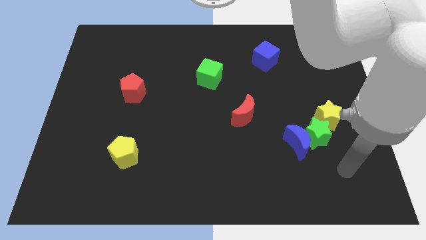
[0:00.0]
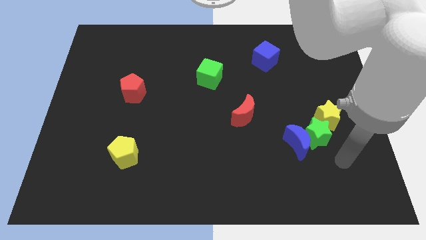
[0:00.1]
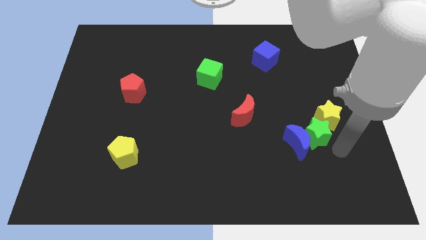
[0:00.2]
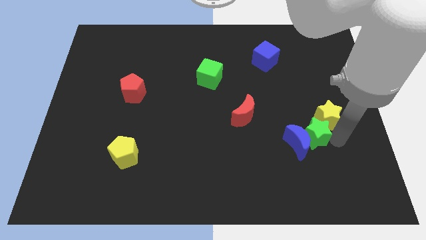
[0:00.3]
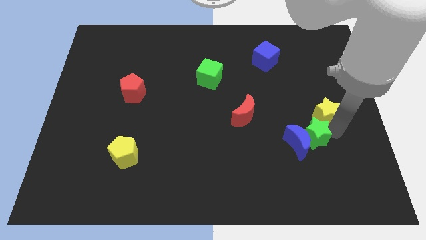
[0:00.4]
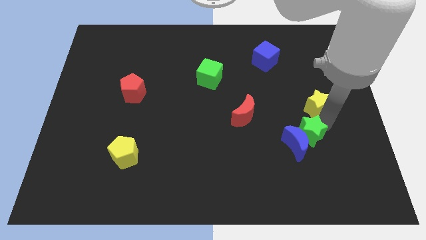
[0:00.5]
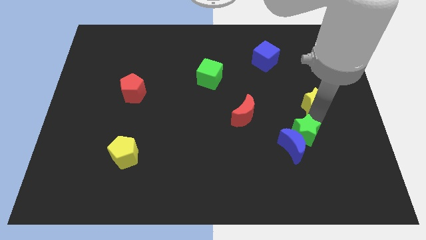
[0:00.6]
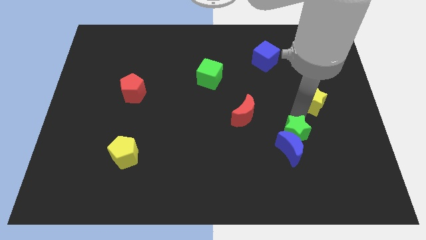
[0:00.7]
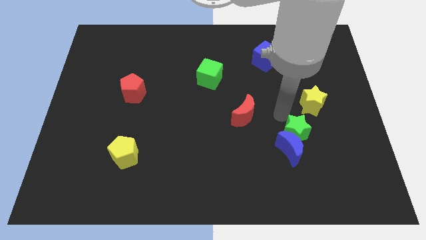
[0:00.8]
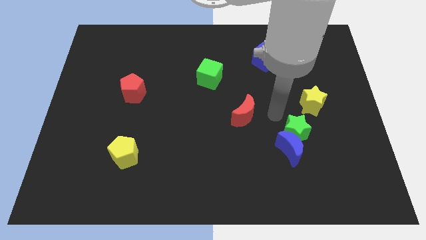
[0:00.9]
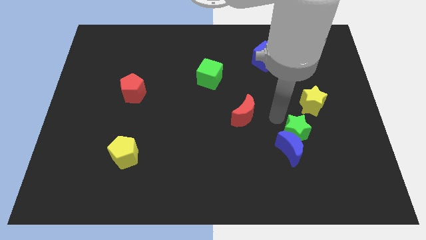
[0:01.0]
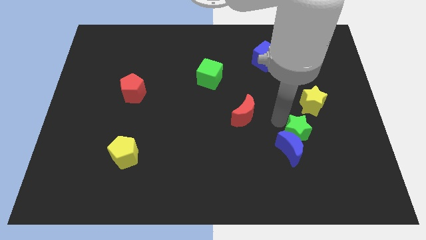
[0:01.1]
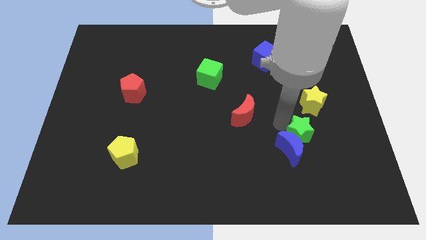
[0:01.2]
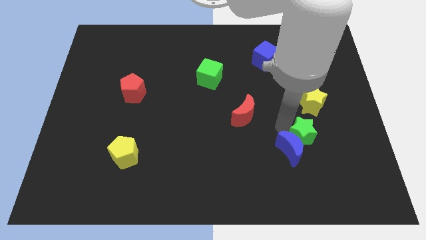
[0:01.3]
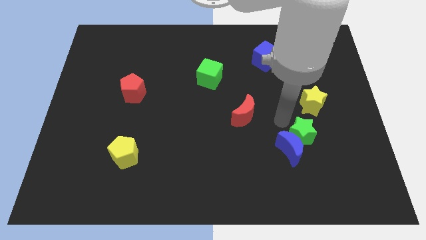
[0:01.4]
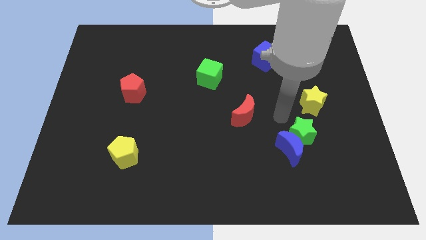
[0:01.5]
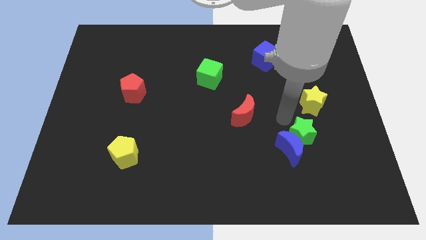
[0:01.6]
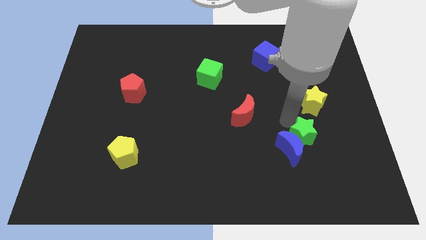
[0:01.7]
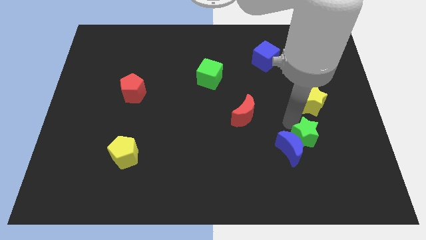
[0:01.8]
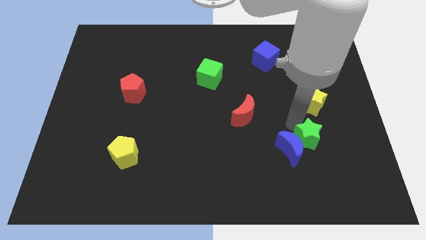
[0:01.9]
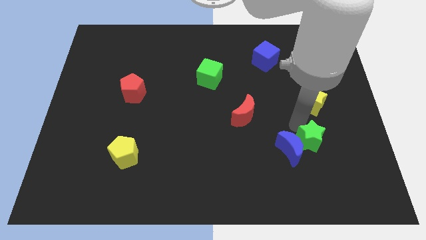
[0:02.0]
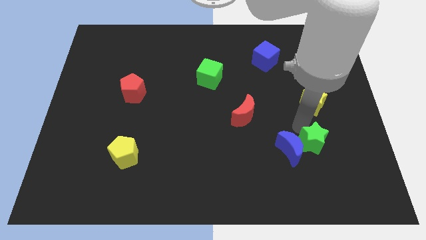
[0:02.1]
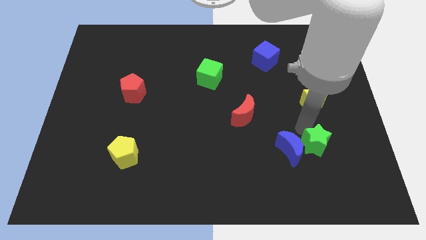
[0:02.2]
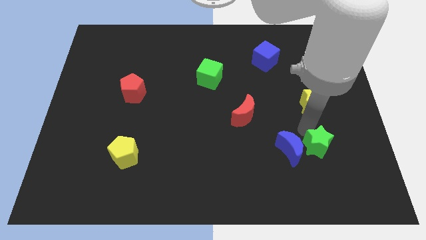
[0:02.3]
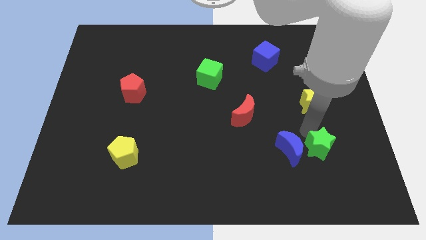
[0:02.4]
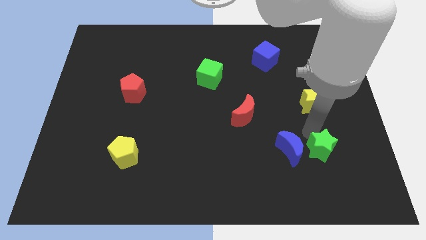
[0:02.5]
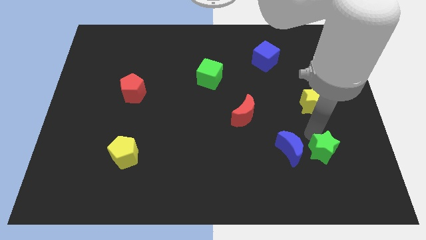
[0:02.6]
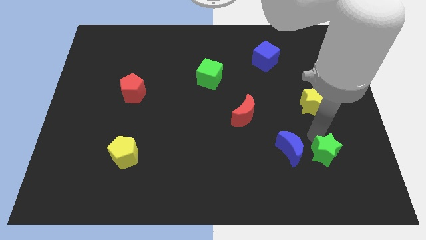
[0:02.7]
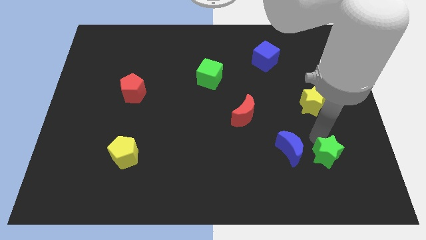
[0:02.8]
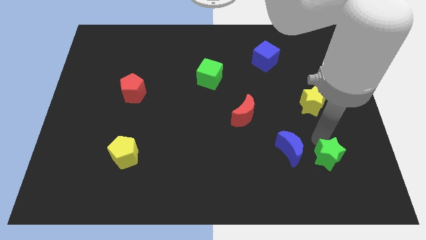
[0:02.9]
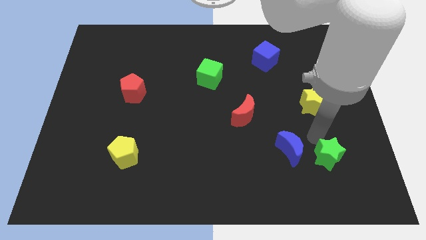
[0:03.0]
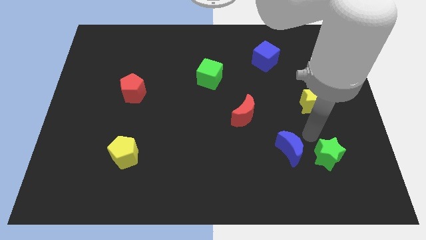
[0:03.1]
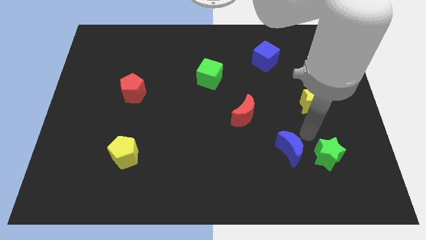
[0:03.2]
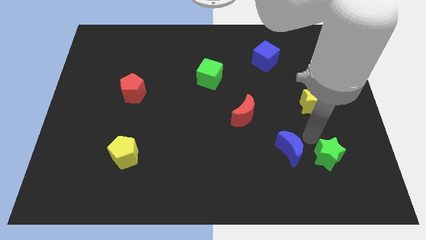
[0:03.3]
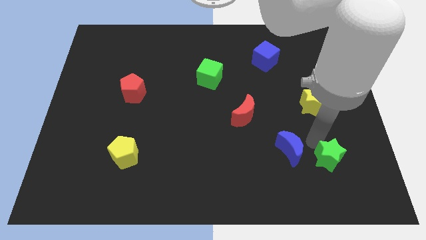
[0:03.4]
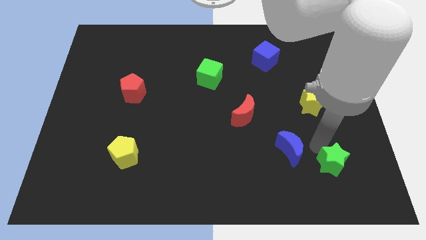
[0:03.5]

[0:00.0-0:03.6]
pull the green star apart from the blue moon and yellow star

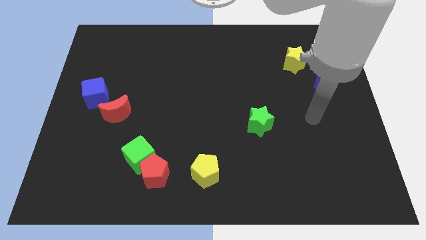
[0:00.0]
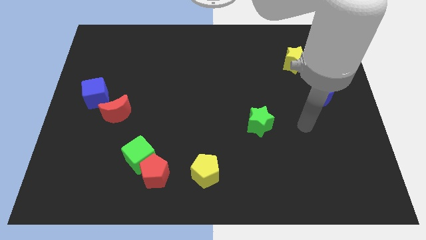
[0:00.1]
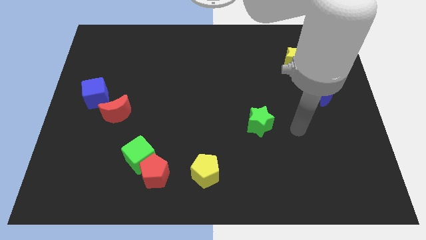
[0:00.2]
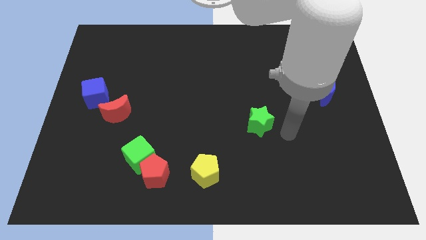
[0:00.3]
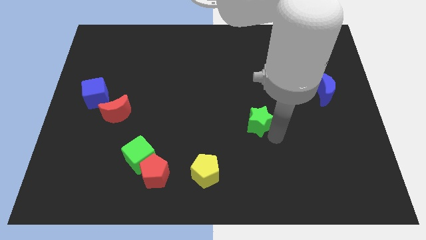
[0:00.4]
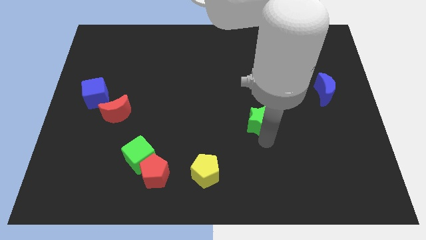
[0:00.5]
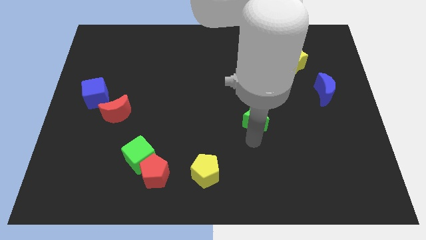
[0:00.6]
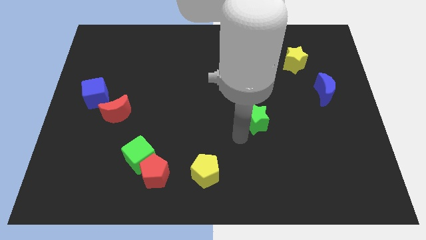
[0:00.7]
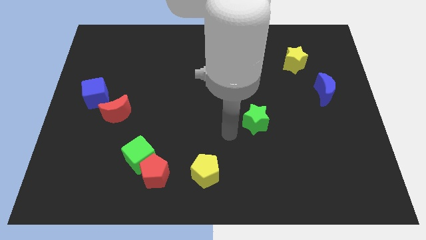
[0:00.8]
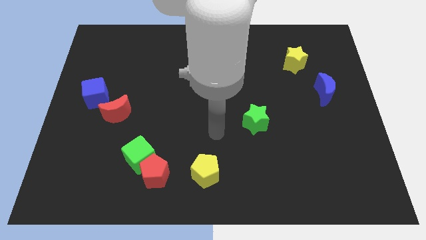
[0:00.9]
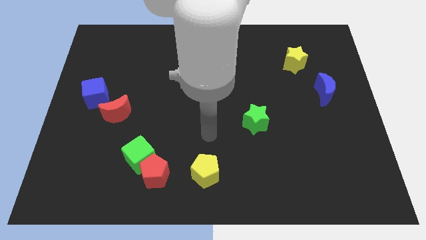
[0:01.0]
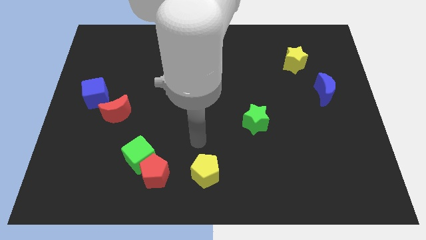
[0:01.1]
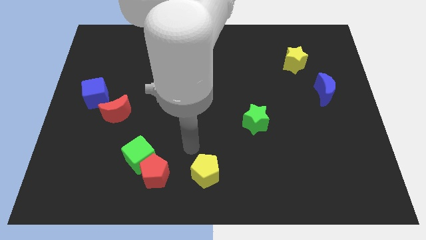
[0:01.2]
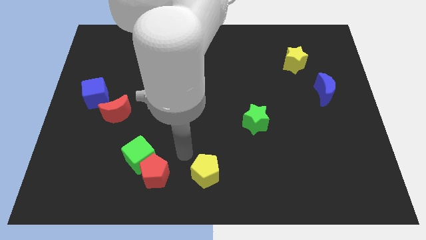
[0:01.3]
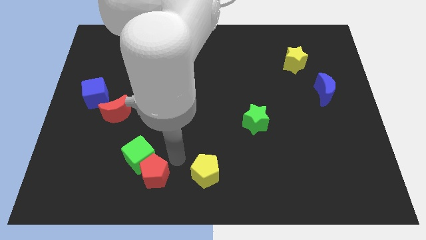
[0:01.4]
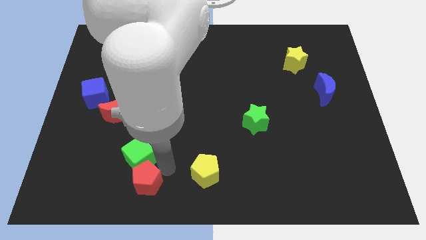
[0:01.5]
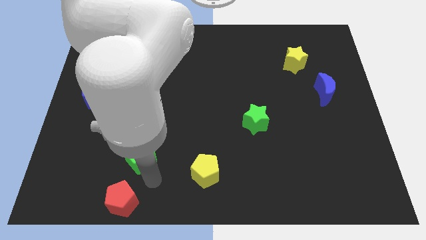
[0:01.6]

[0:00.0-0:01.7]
separate the green cube from the red pentagon

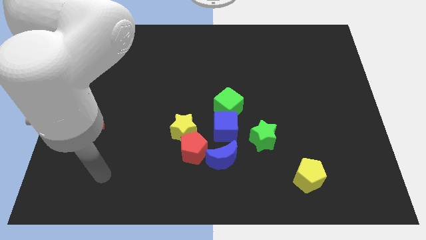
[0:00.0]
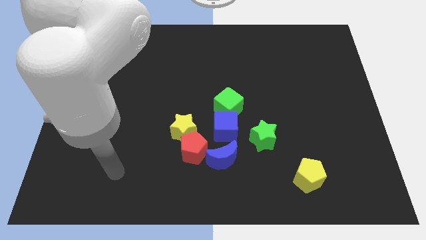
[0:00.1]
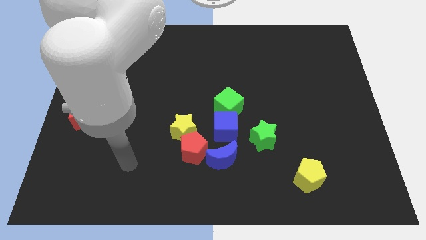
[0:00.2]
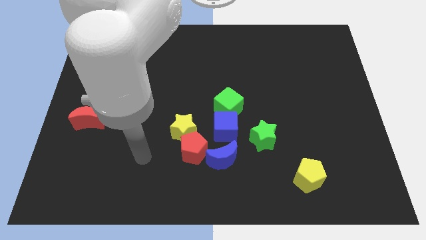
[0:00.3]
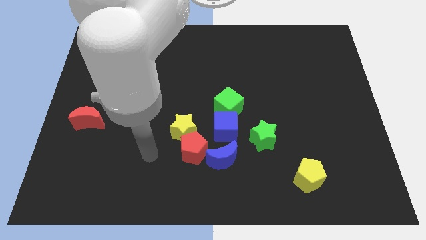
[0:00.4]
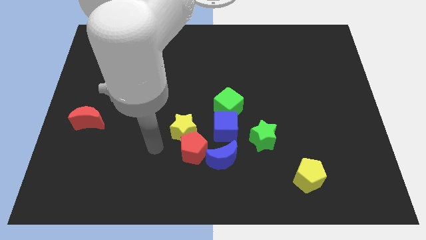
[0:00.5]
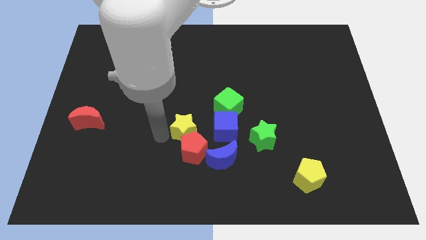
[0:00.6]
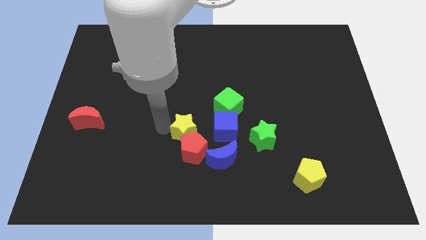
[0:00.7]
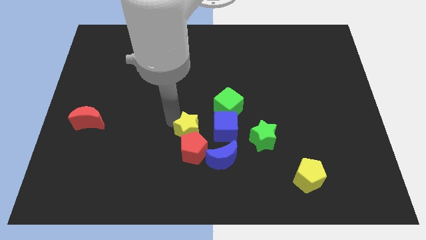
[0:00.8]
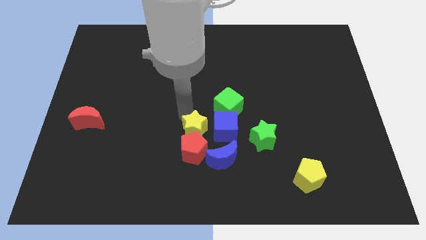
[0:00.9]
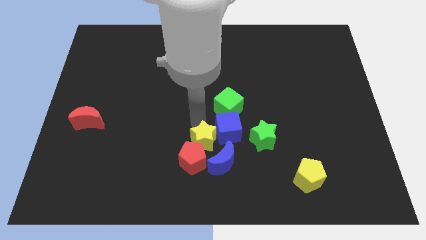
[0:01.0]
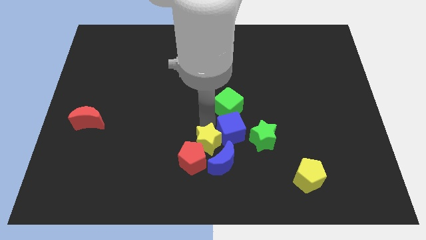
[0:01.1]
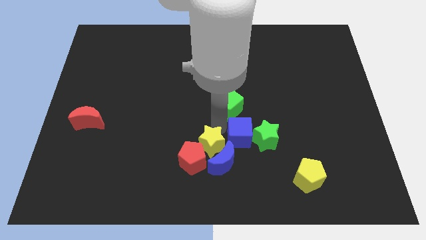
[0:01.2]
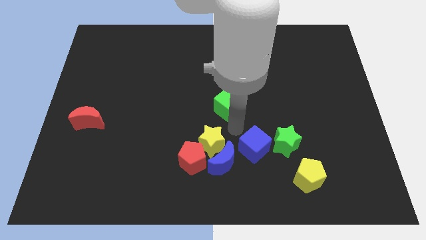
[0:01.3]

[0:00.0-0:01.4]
separate the green cube from the blue cube

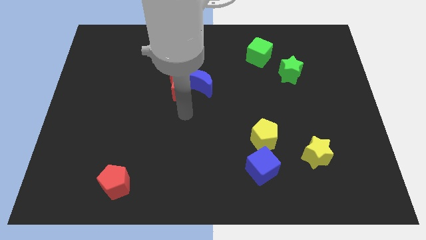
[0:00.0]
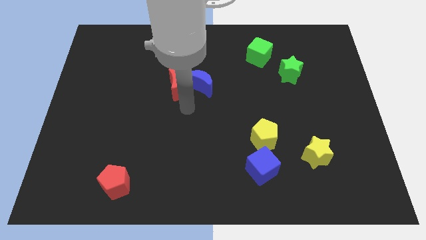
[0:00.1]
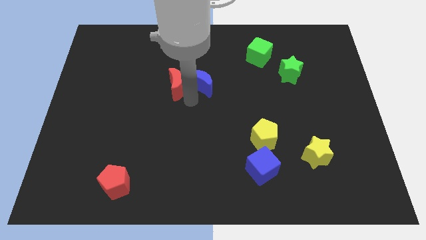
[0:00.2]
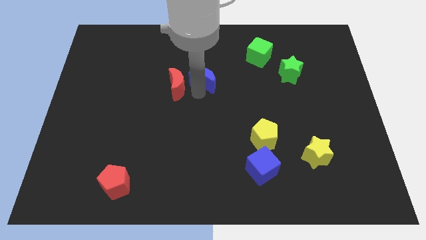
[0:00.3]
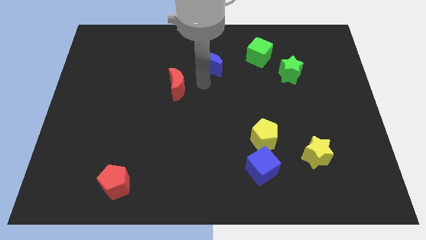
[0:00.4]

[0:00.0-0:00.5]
move the red moon away from the blue moon

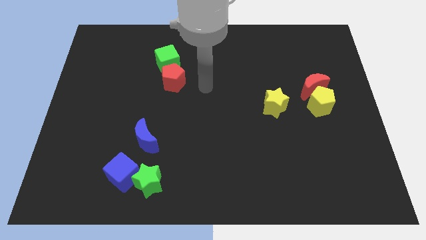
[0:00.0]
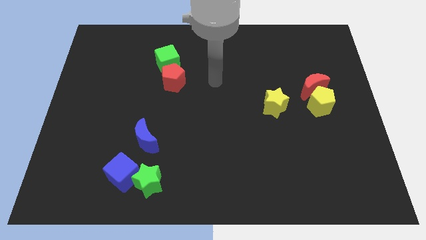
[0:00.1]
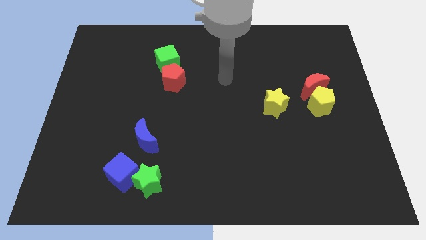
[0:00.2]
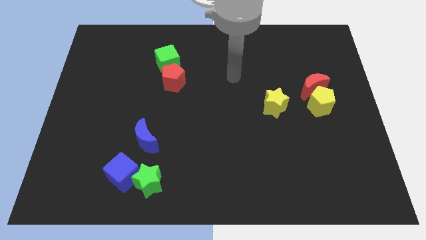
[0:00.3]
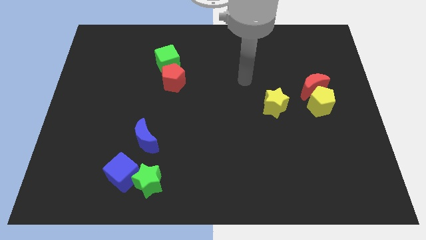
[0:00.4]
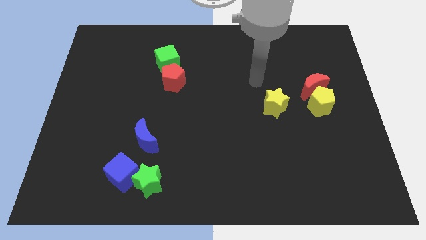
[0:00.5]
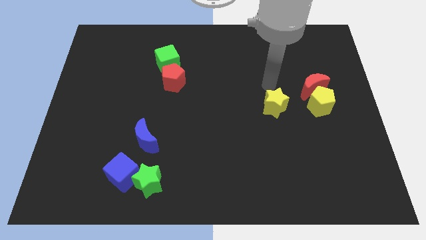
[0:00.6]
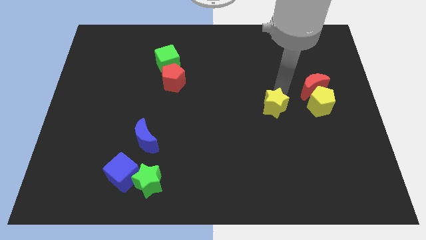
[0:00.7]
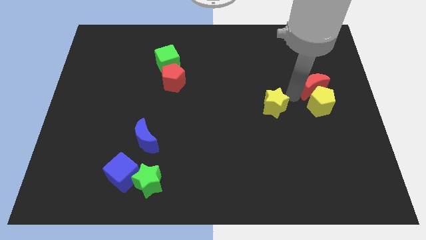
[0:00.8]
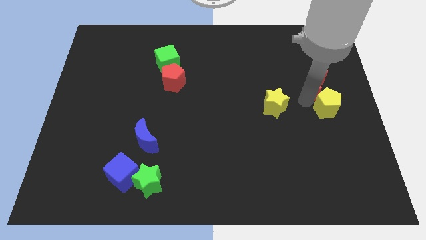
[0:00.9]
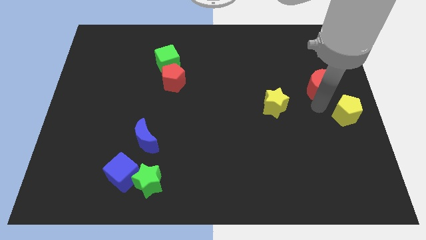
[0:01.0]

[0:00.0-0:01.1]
pull the red moon apart from the yellow pentagon

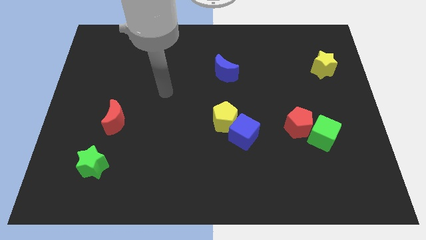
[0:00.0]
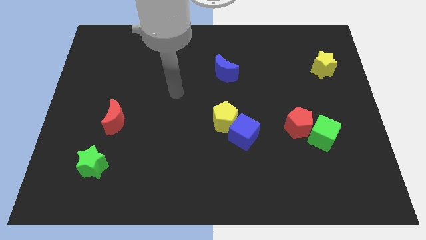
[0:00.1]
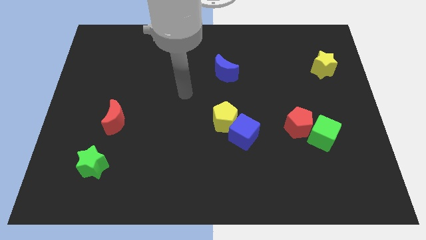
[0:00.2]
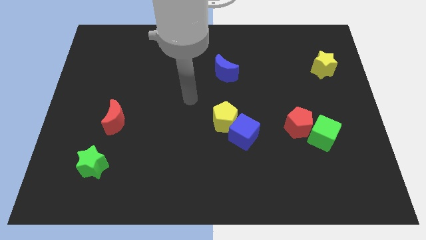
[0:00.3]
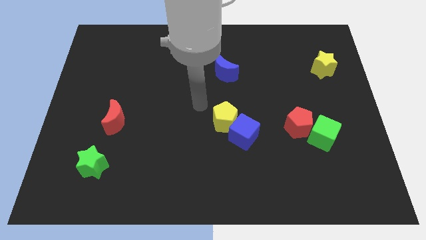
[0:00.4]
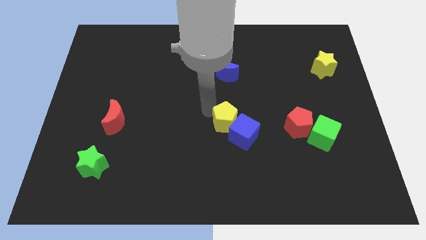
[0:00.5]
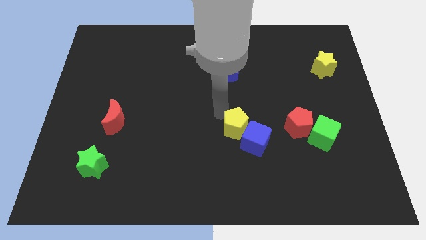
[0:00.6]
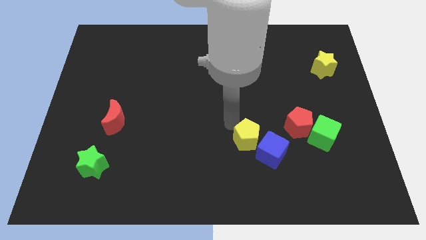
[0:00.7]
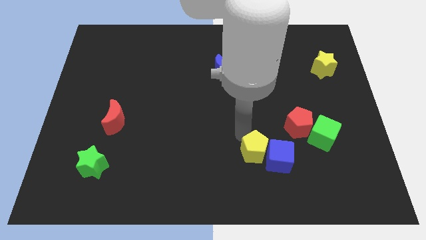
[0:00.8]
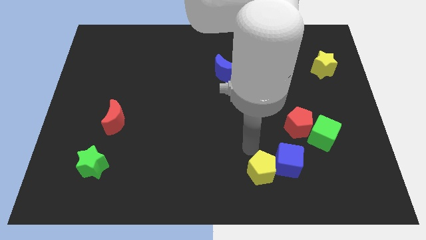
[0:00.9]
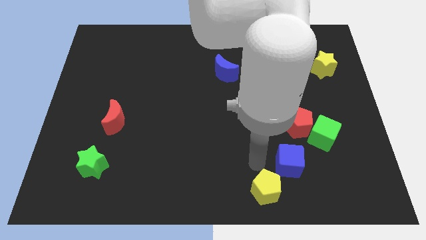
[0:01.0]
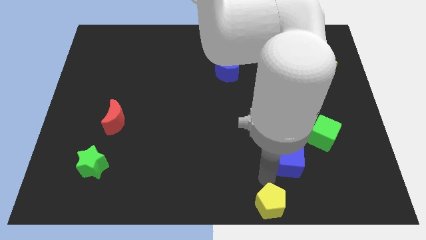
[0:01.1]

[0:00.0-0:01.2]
separate the blue cube from the yellow pentagon
